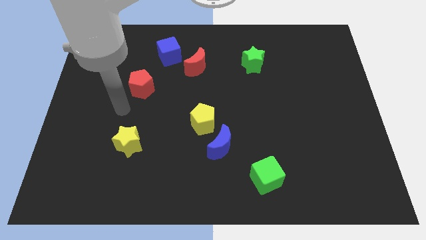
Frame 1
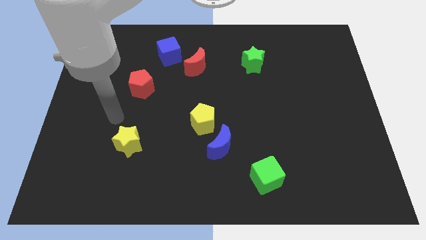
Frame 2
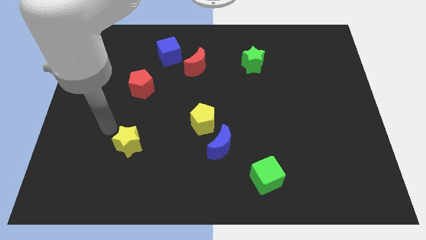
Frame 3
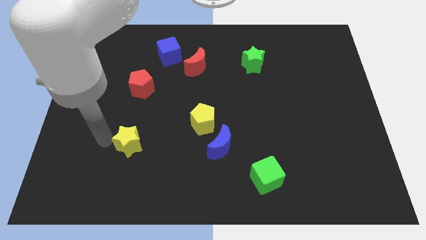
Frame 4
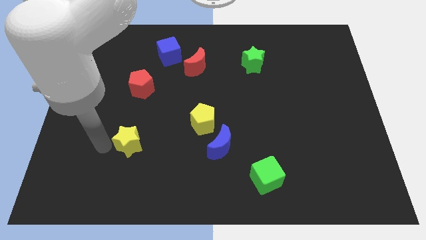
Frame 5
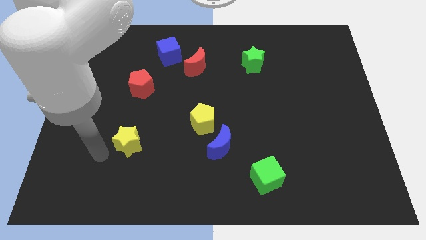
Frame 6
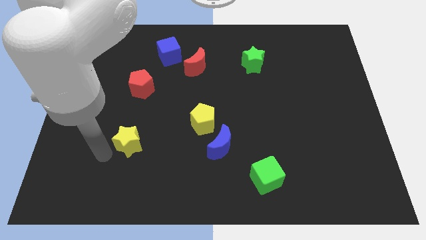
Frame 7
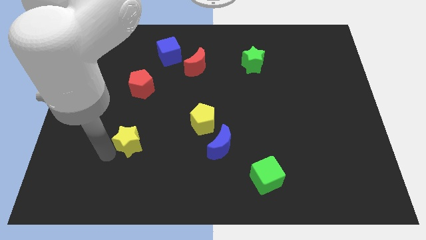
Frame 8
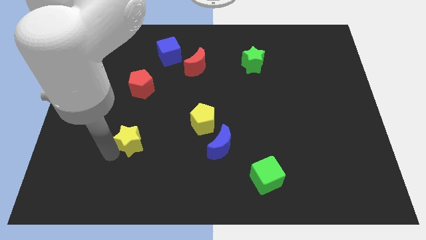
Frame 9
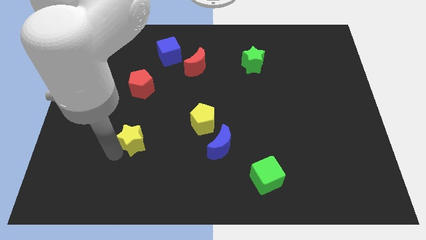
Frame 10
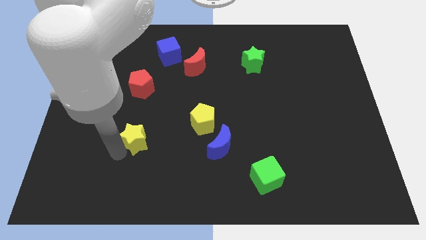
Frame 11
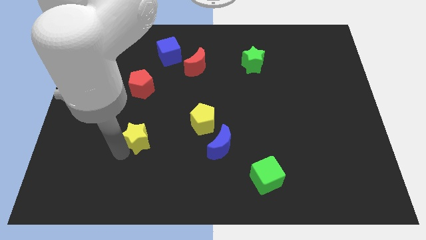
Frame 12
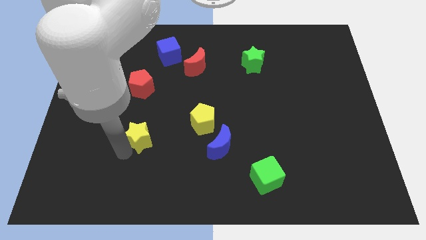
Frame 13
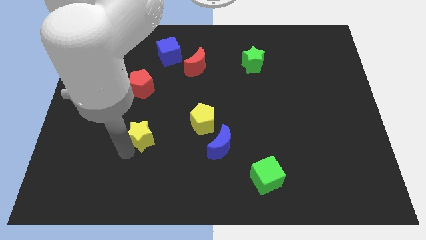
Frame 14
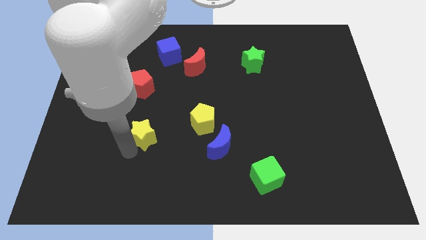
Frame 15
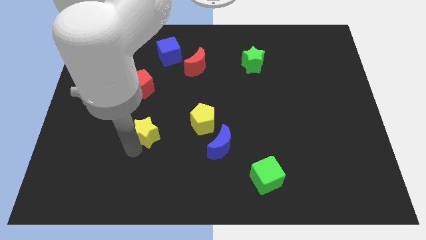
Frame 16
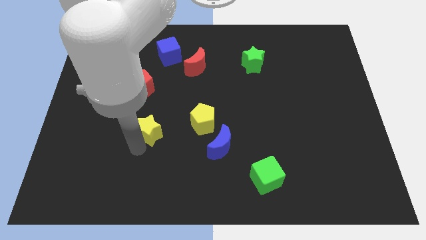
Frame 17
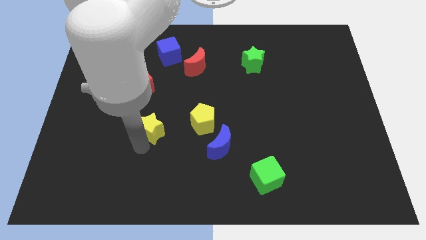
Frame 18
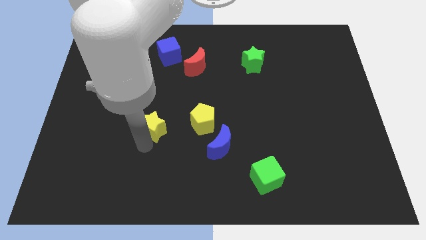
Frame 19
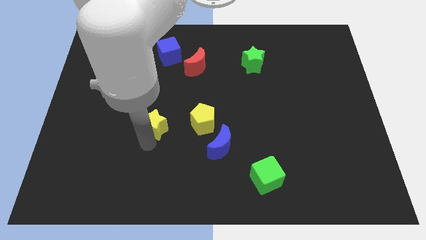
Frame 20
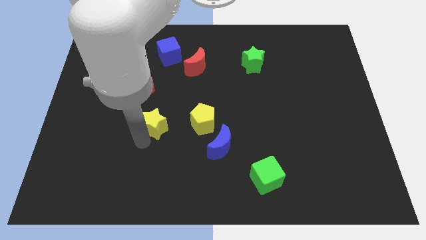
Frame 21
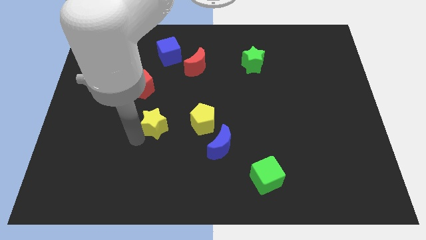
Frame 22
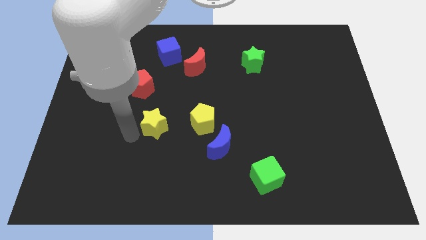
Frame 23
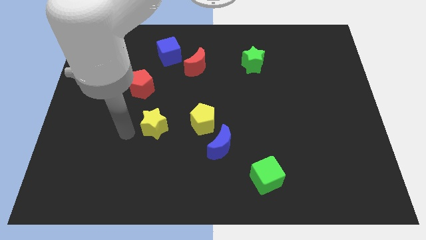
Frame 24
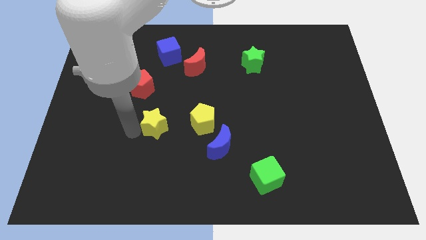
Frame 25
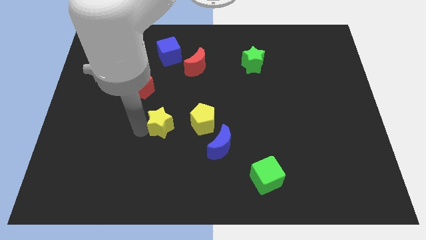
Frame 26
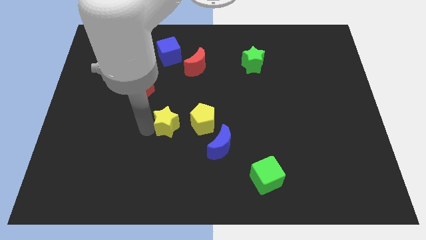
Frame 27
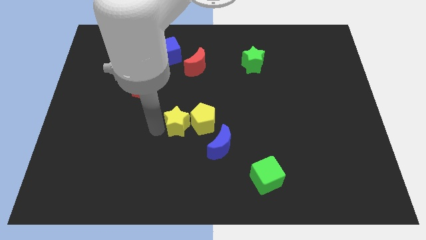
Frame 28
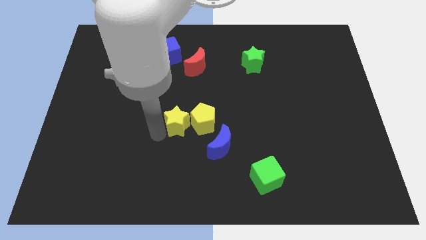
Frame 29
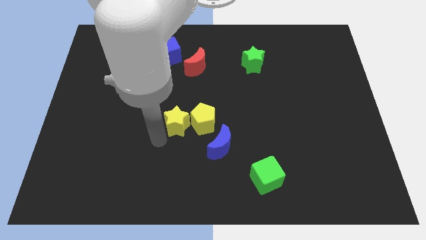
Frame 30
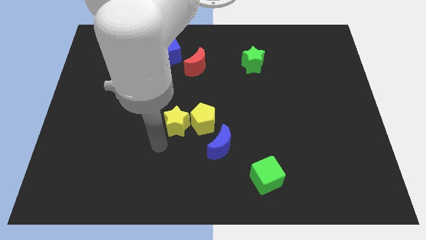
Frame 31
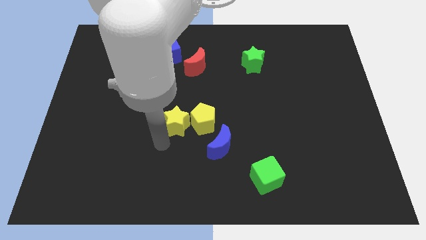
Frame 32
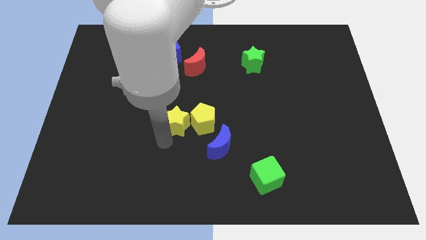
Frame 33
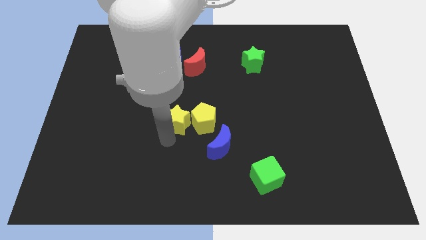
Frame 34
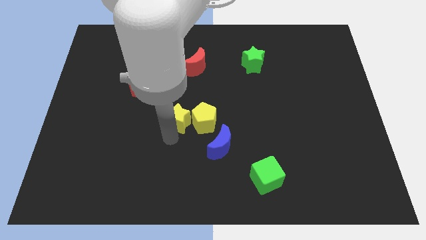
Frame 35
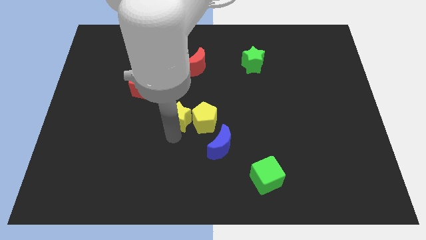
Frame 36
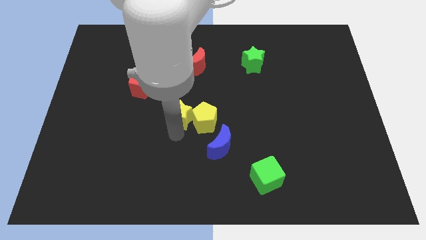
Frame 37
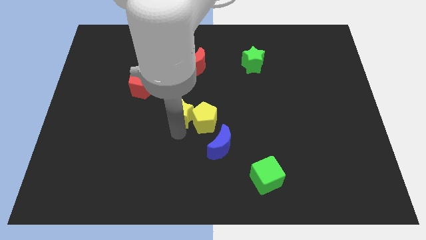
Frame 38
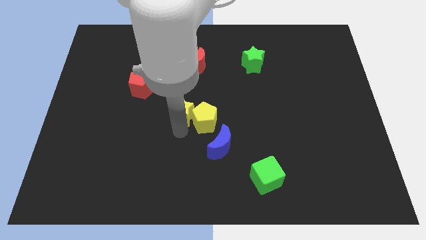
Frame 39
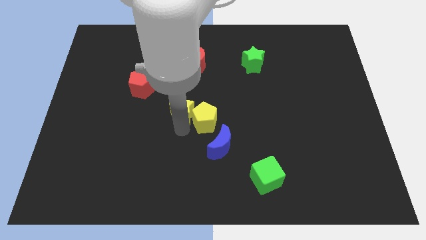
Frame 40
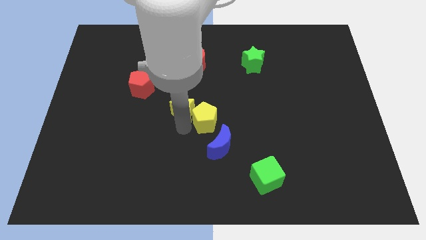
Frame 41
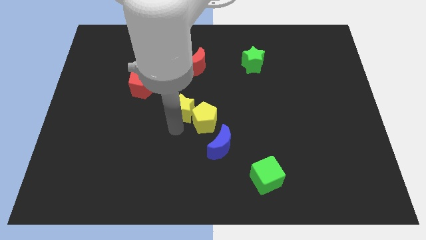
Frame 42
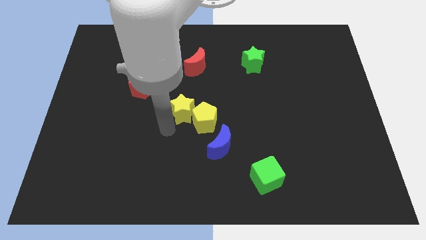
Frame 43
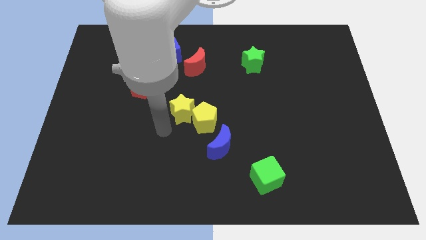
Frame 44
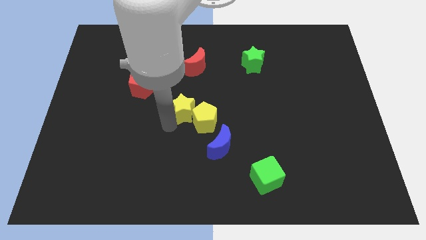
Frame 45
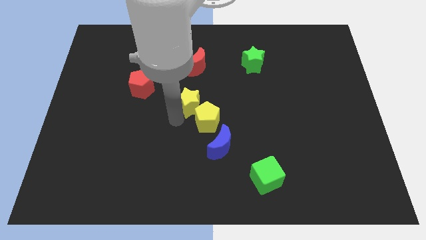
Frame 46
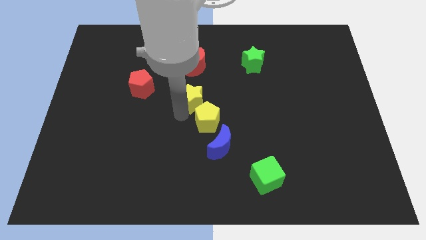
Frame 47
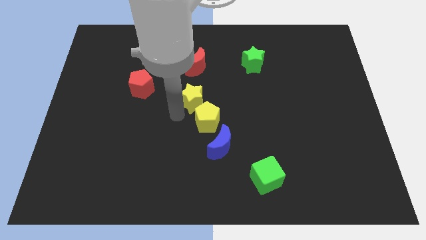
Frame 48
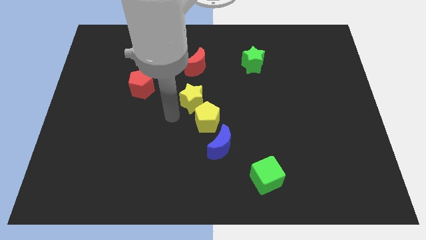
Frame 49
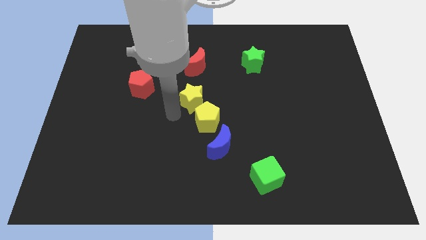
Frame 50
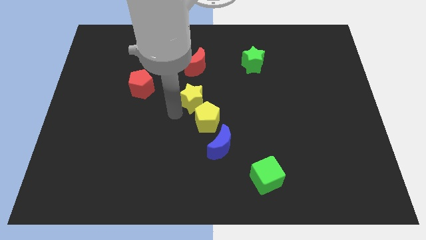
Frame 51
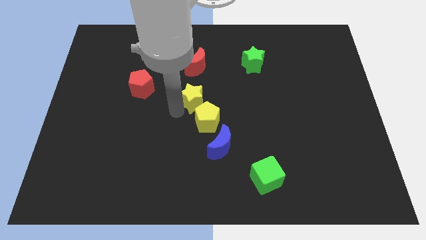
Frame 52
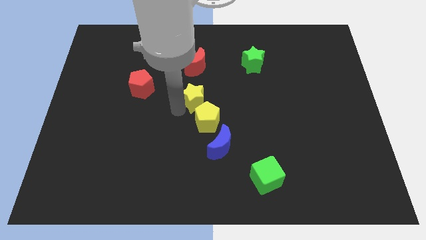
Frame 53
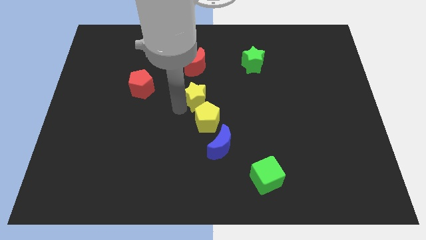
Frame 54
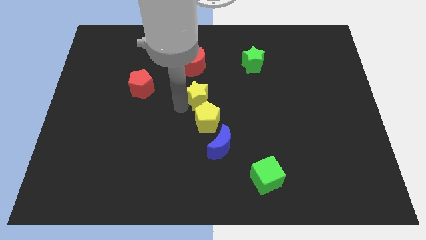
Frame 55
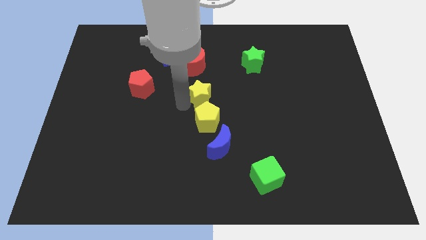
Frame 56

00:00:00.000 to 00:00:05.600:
move the yellow star upwards and to the right diagonally

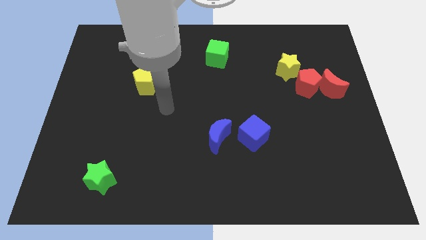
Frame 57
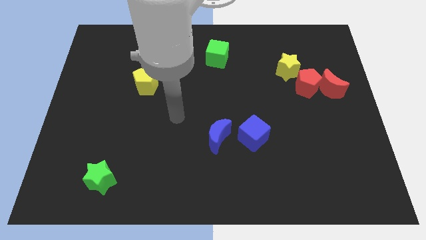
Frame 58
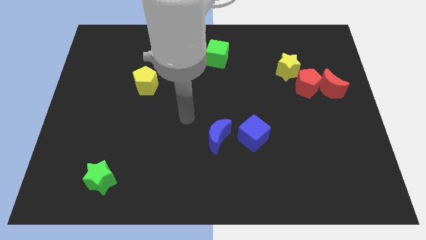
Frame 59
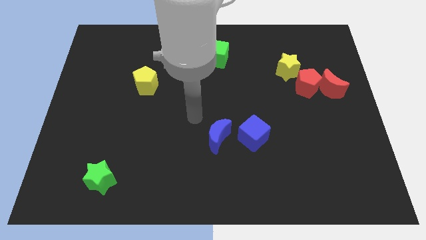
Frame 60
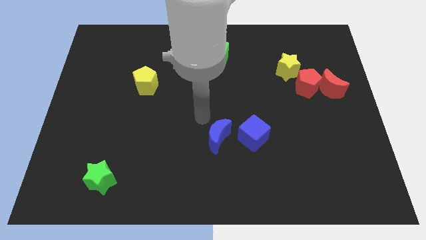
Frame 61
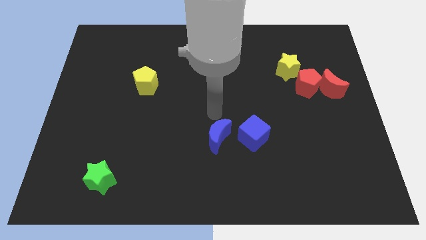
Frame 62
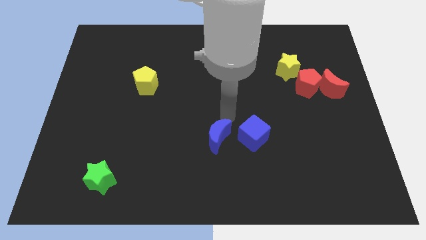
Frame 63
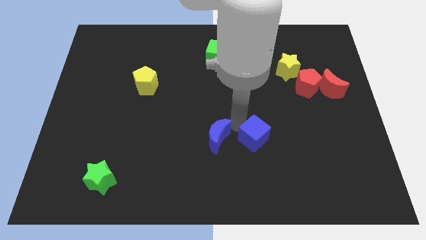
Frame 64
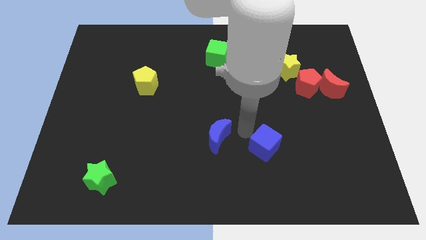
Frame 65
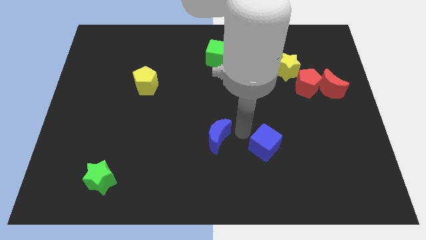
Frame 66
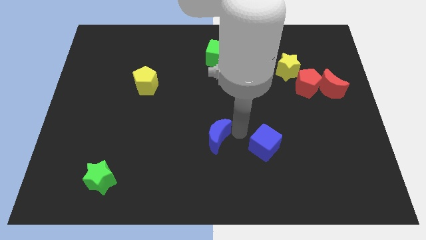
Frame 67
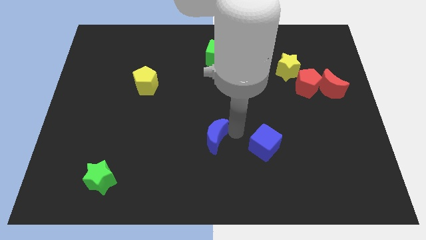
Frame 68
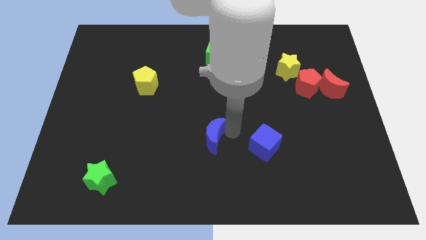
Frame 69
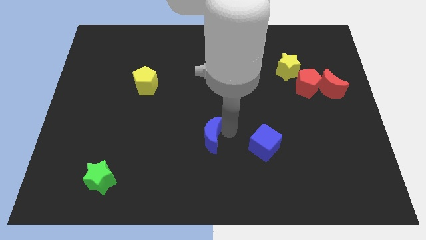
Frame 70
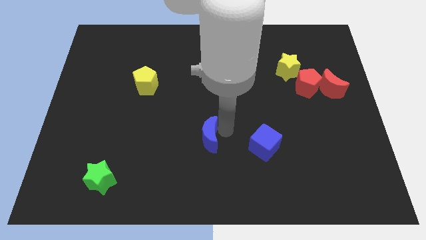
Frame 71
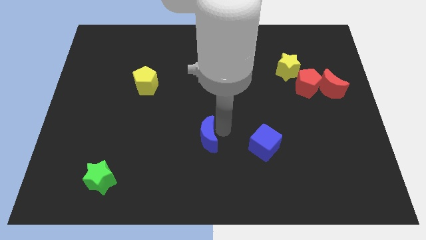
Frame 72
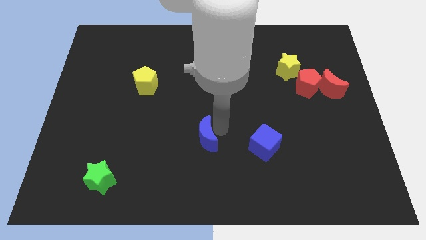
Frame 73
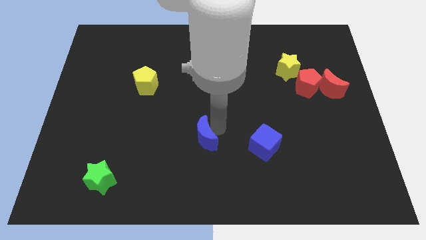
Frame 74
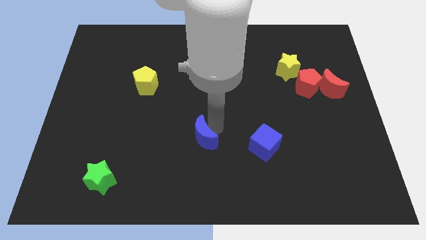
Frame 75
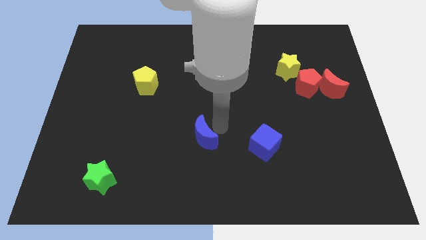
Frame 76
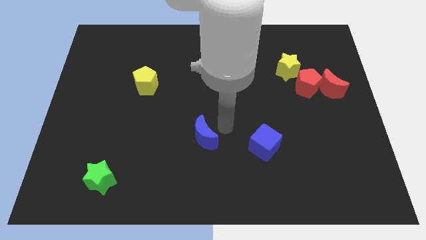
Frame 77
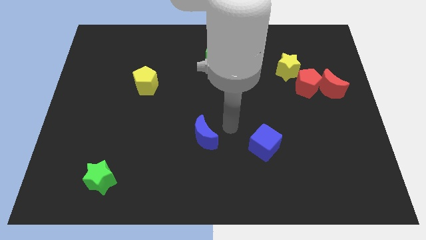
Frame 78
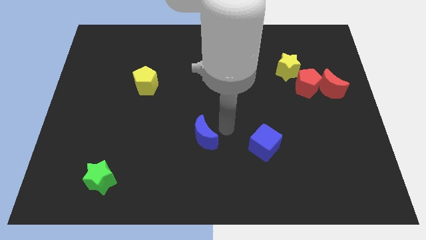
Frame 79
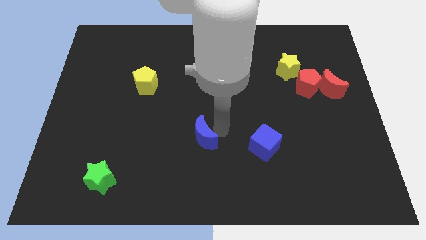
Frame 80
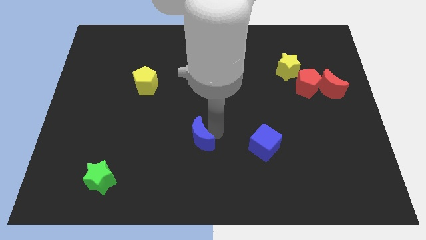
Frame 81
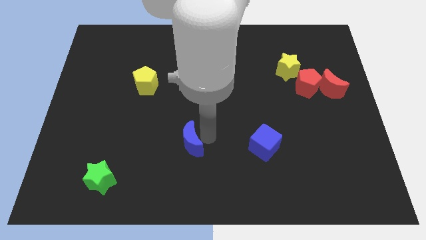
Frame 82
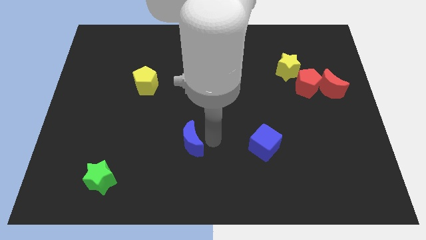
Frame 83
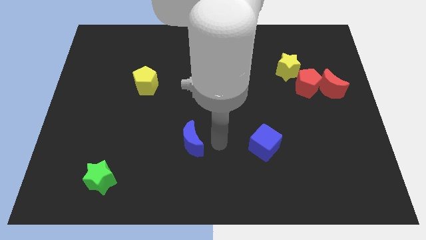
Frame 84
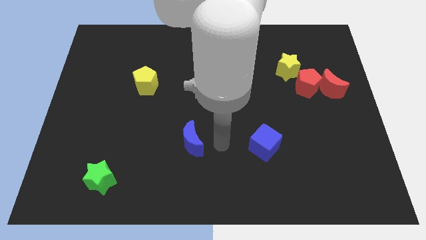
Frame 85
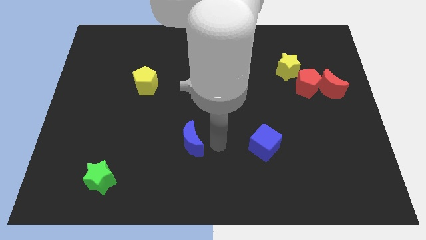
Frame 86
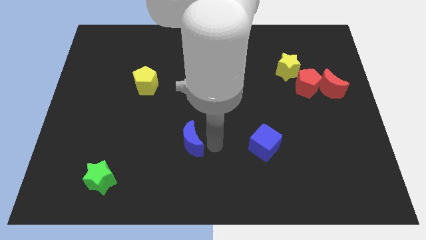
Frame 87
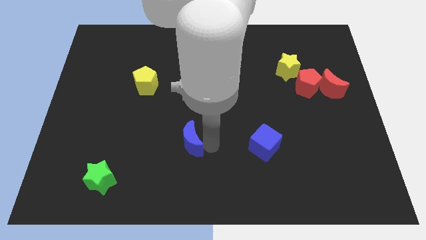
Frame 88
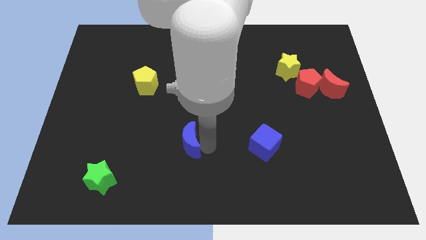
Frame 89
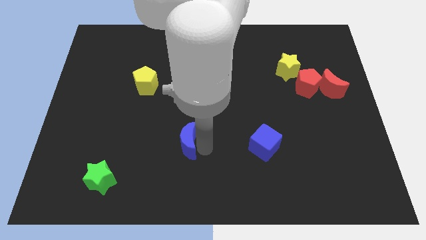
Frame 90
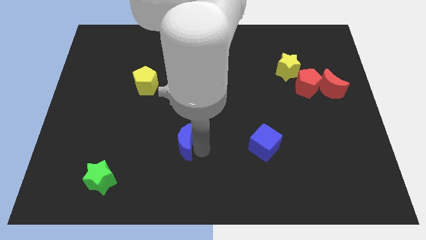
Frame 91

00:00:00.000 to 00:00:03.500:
slide the blue moon slightly left
